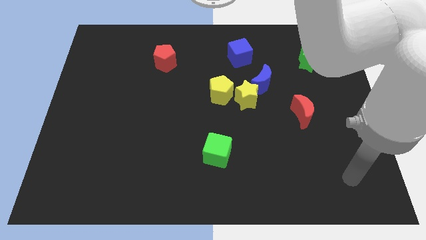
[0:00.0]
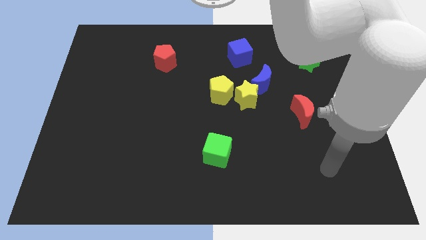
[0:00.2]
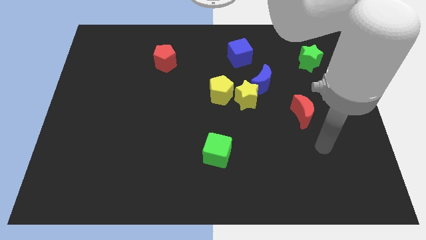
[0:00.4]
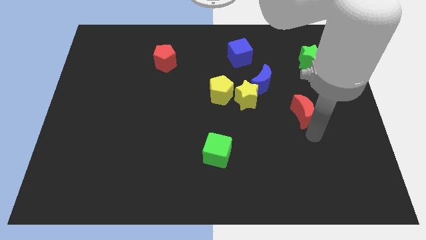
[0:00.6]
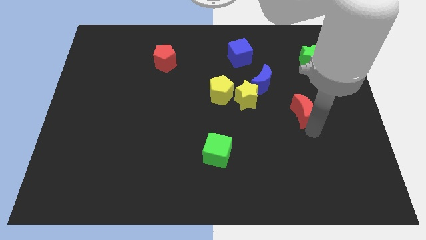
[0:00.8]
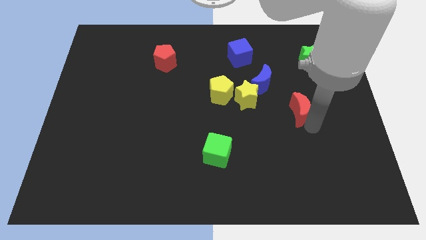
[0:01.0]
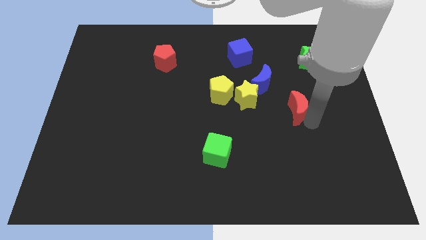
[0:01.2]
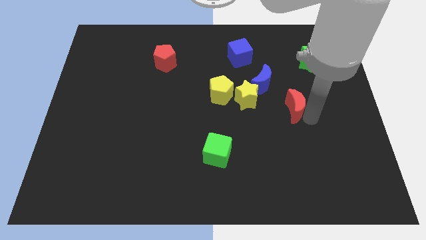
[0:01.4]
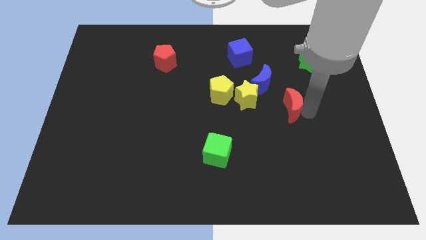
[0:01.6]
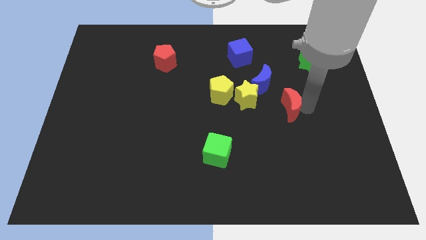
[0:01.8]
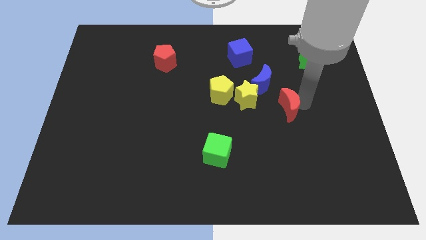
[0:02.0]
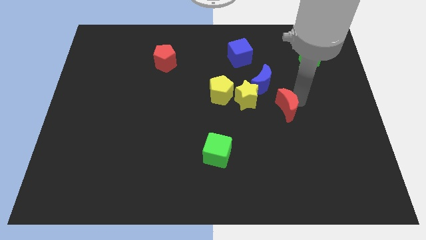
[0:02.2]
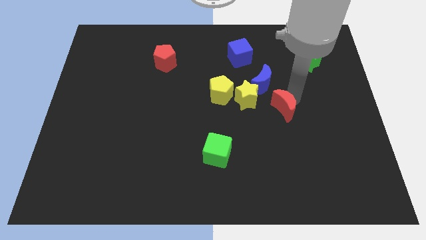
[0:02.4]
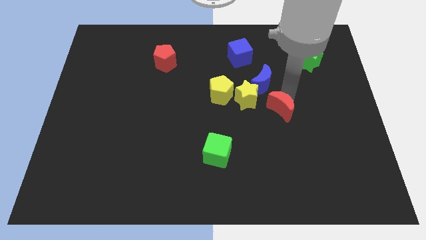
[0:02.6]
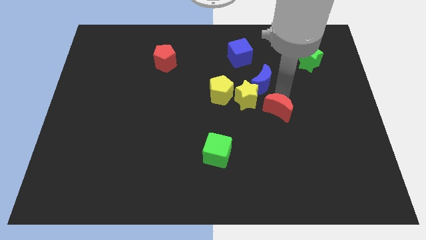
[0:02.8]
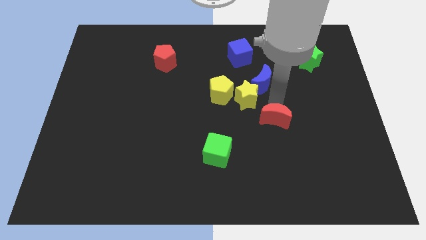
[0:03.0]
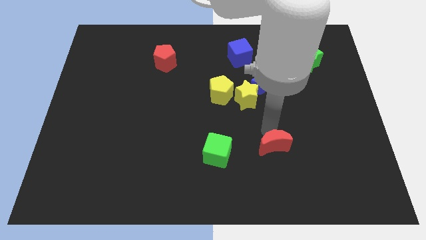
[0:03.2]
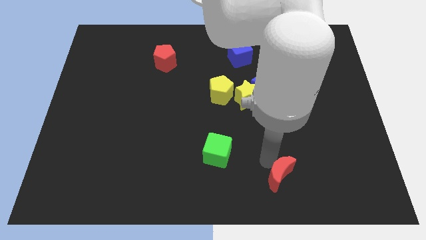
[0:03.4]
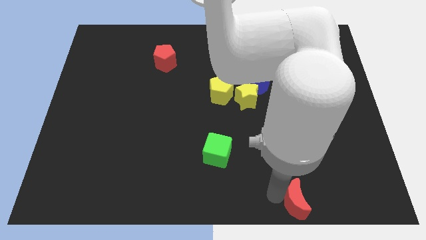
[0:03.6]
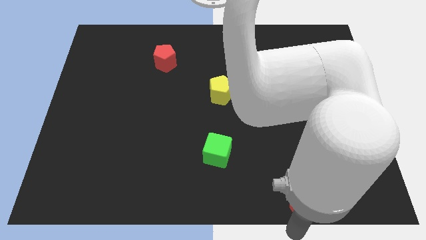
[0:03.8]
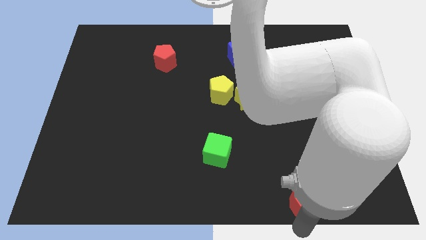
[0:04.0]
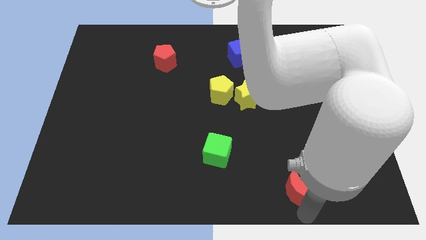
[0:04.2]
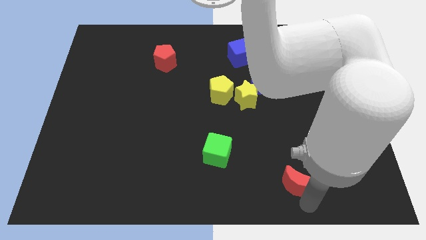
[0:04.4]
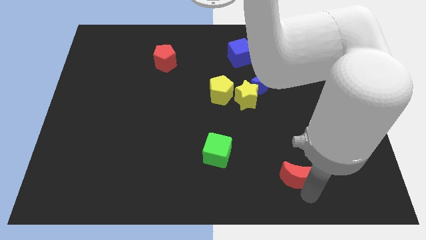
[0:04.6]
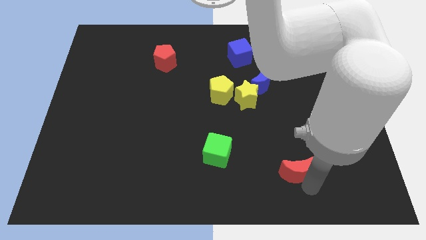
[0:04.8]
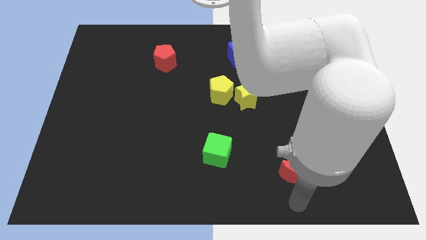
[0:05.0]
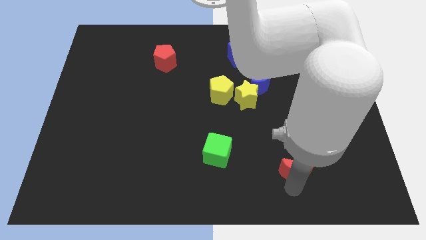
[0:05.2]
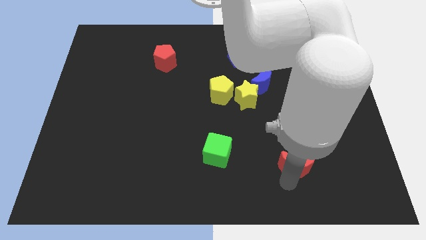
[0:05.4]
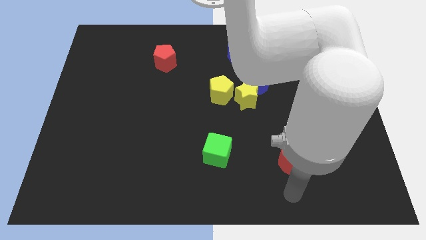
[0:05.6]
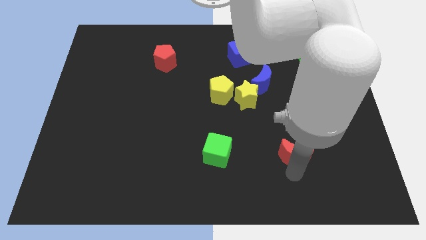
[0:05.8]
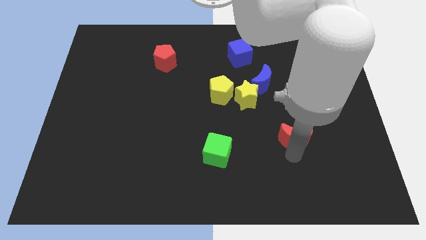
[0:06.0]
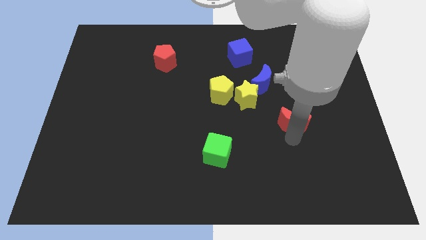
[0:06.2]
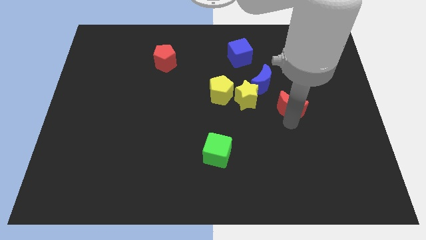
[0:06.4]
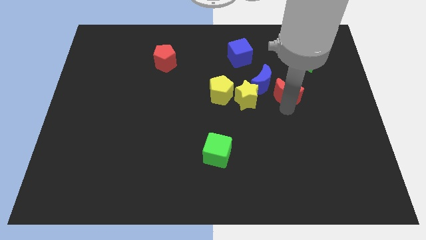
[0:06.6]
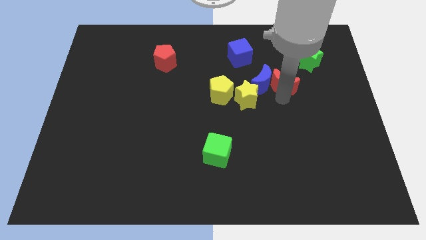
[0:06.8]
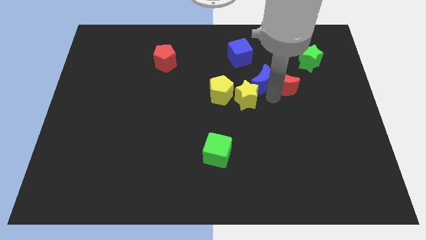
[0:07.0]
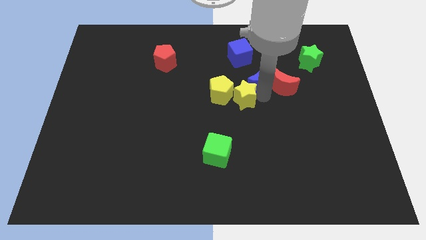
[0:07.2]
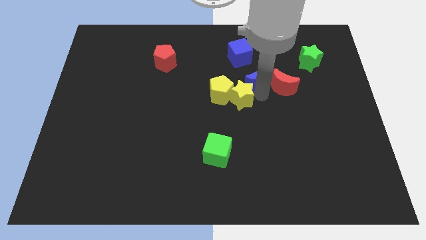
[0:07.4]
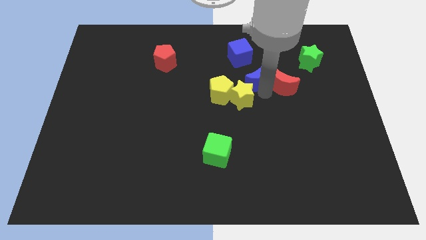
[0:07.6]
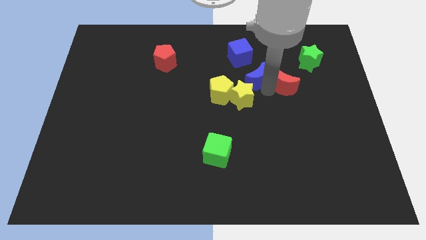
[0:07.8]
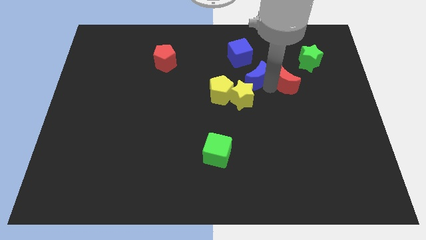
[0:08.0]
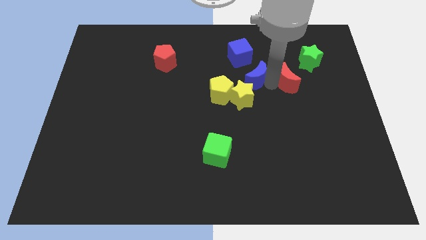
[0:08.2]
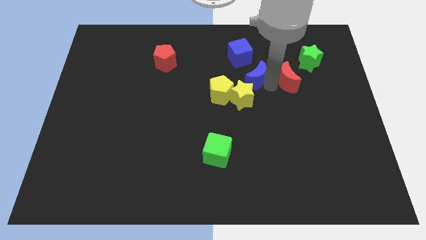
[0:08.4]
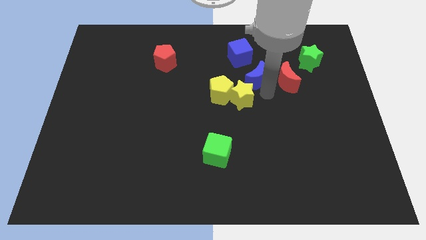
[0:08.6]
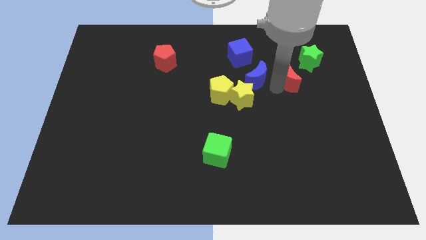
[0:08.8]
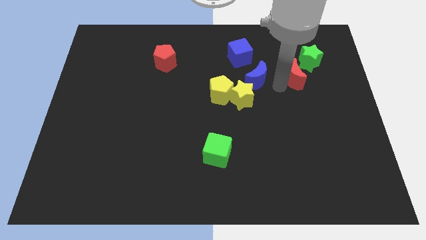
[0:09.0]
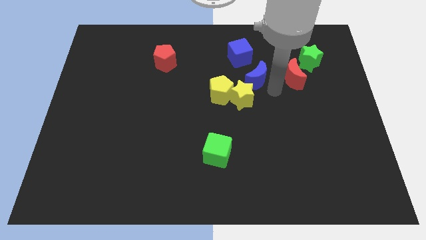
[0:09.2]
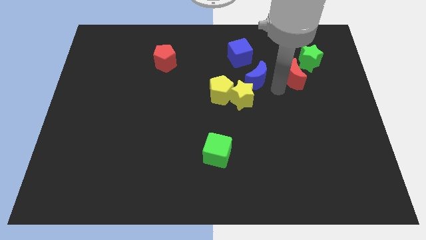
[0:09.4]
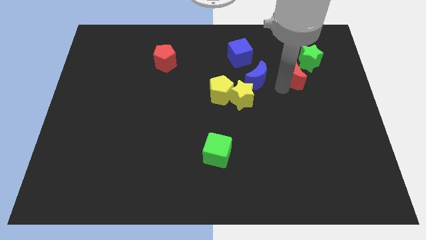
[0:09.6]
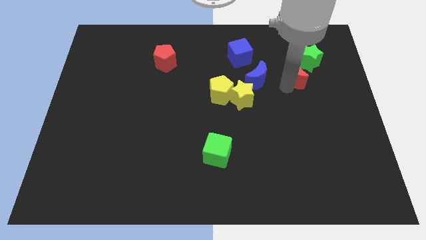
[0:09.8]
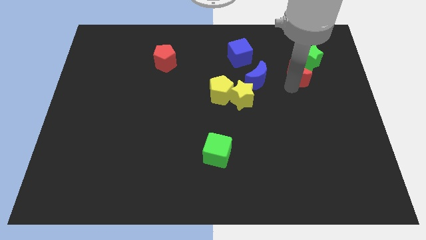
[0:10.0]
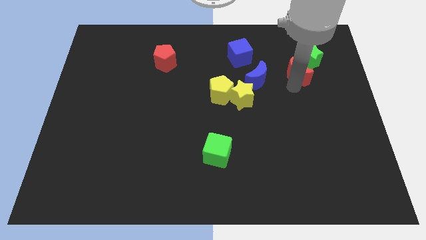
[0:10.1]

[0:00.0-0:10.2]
slide the red moon next to the green star

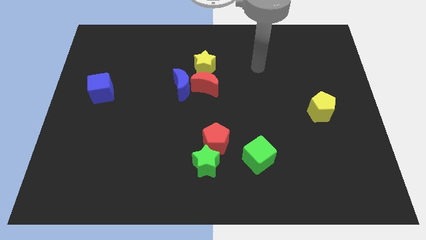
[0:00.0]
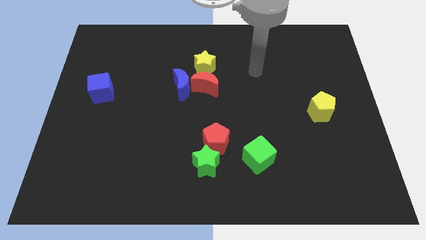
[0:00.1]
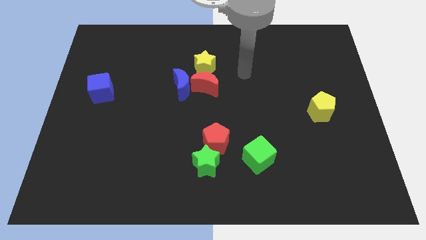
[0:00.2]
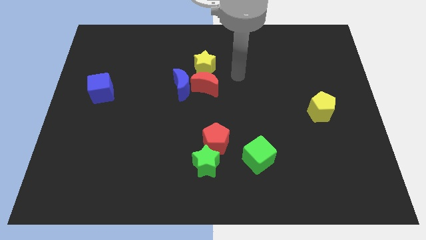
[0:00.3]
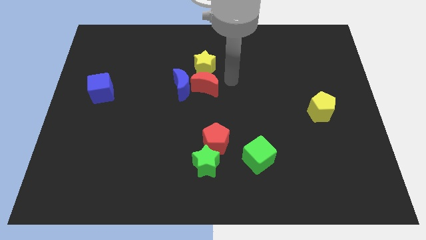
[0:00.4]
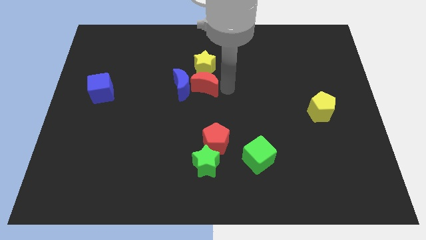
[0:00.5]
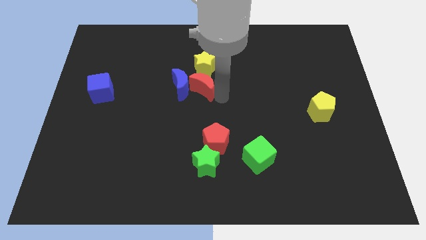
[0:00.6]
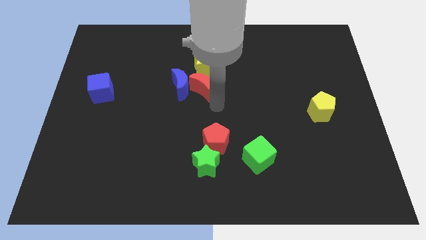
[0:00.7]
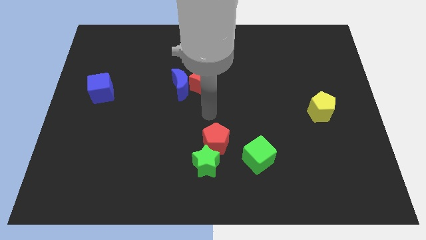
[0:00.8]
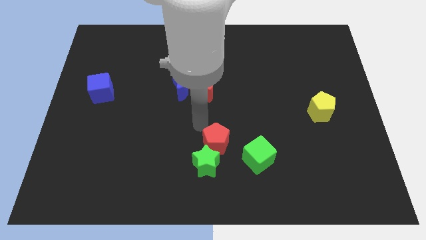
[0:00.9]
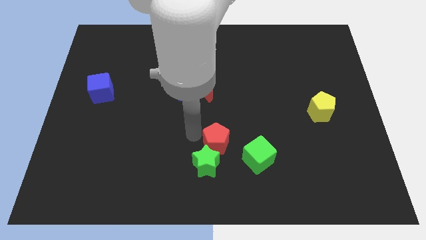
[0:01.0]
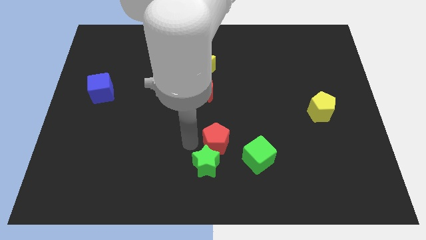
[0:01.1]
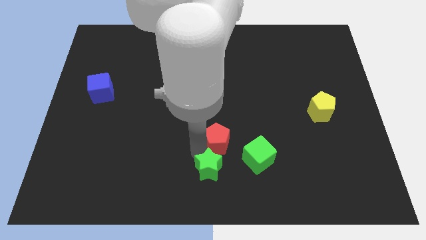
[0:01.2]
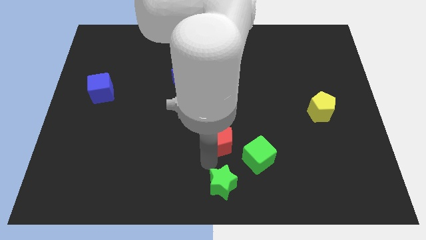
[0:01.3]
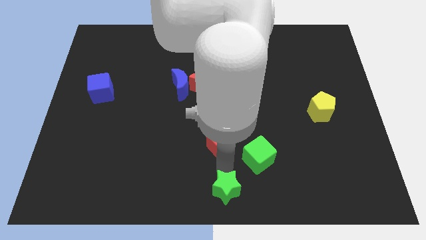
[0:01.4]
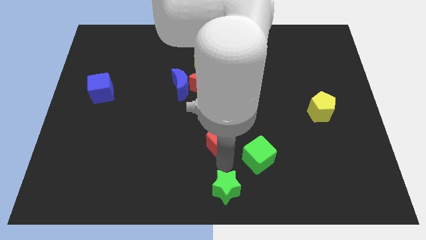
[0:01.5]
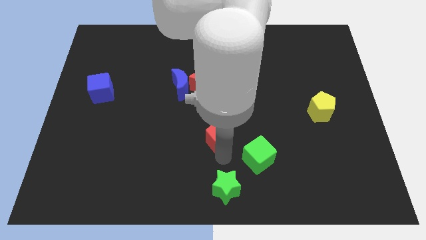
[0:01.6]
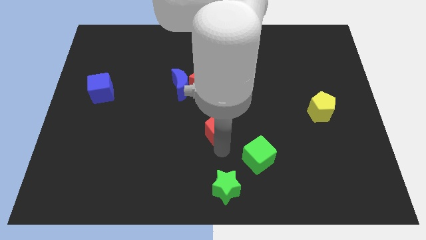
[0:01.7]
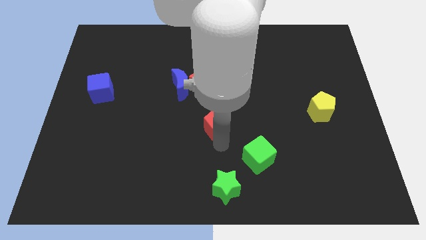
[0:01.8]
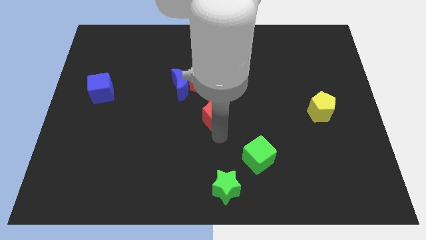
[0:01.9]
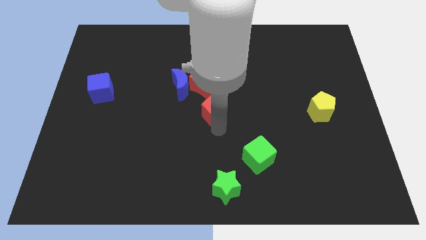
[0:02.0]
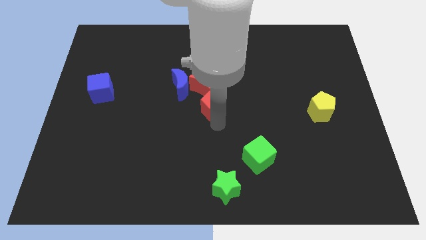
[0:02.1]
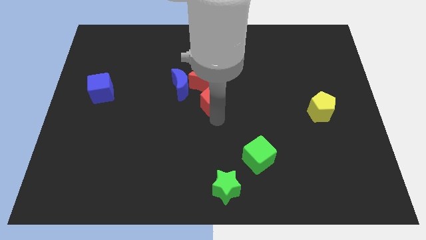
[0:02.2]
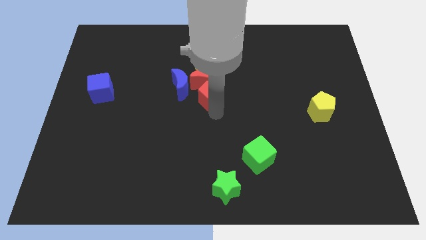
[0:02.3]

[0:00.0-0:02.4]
slide the red pentagon next to the red moon
